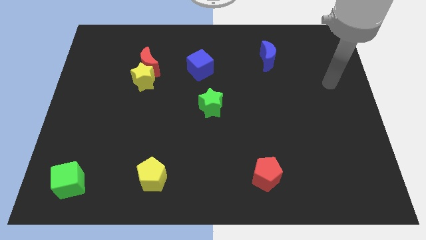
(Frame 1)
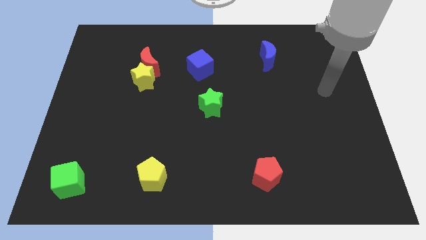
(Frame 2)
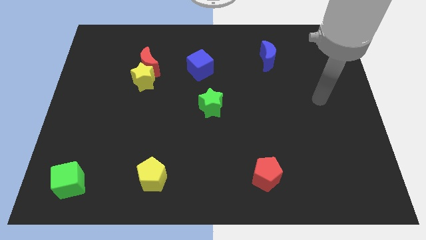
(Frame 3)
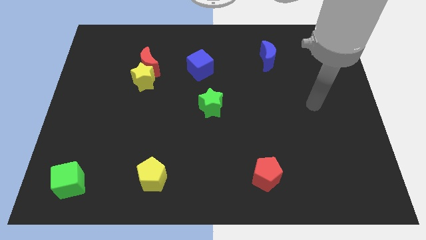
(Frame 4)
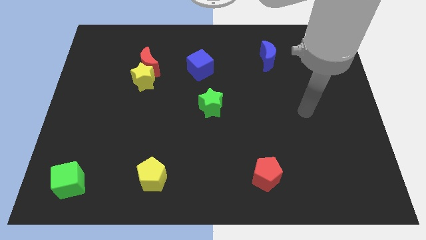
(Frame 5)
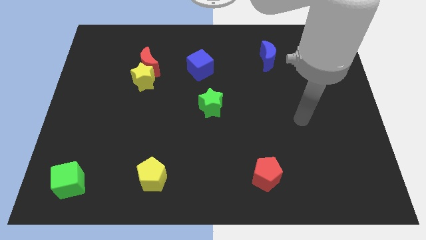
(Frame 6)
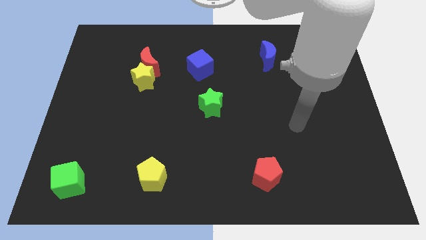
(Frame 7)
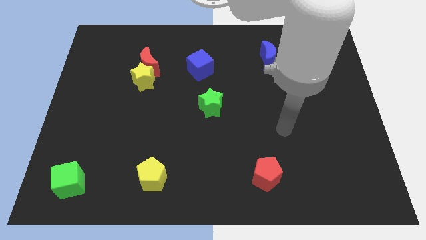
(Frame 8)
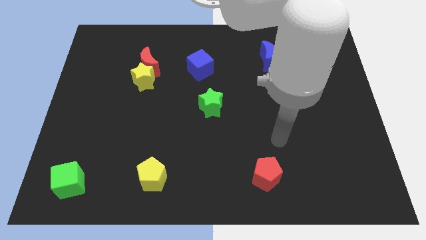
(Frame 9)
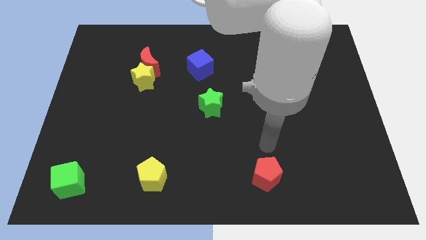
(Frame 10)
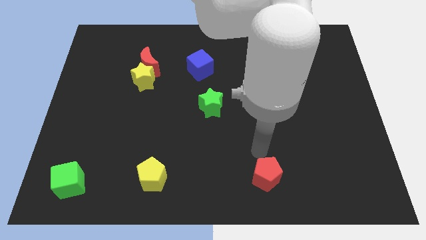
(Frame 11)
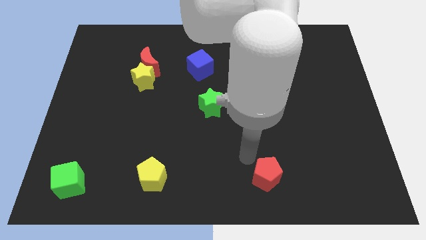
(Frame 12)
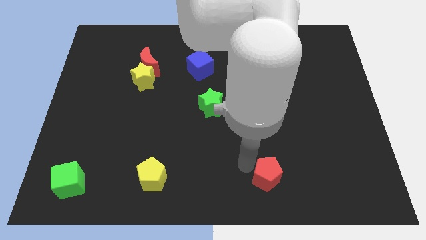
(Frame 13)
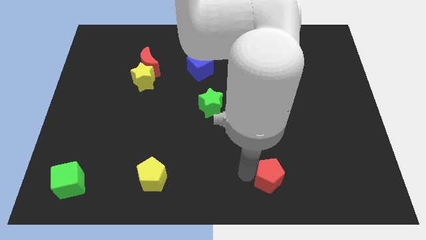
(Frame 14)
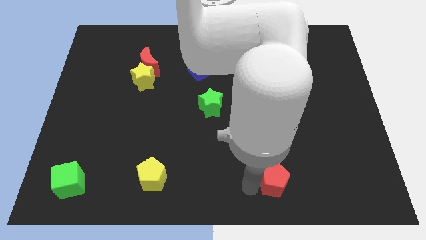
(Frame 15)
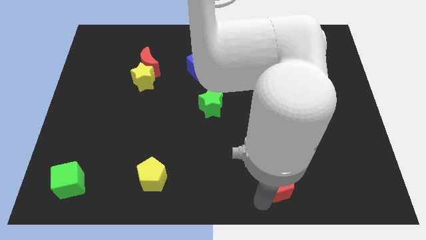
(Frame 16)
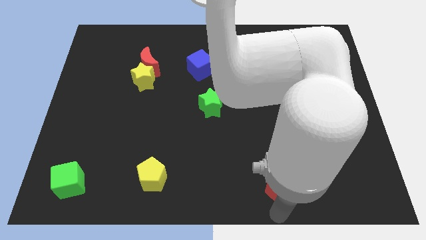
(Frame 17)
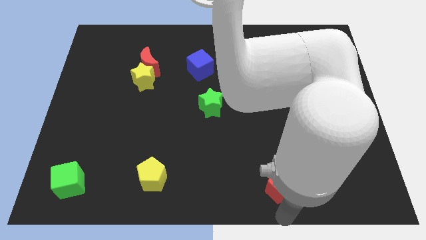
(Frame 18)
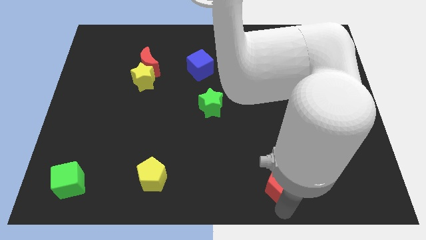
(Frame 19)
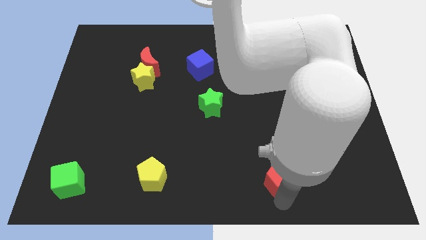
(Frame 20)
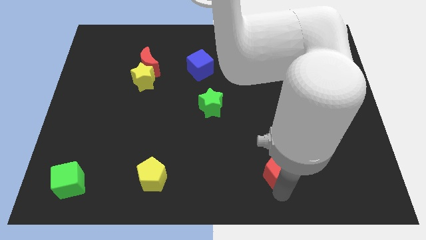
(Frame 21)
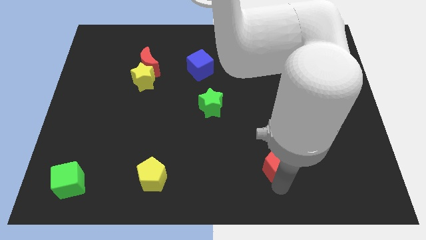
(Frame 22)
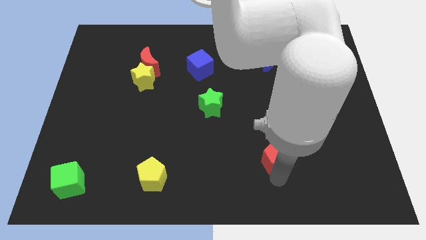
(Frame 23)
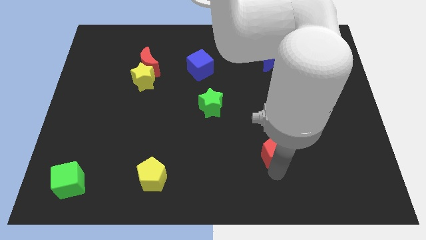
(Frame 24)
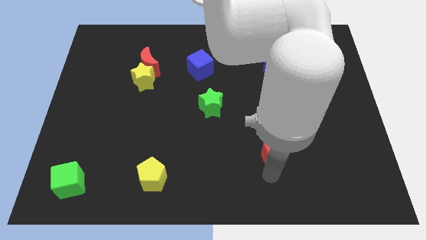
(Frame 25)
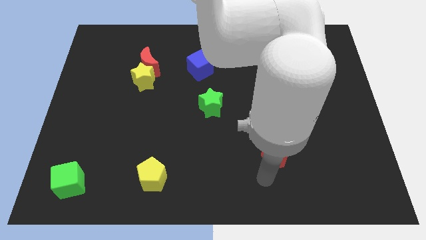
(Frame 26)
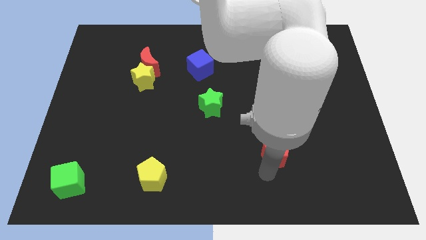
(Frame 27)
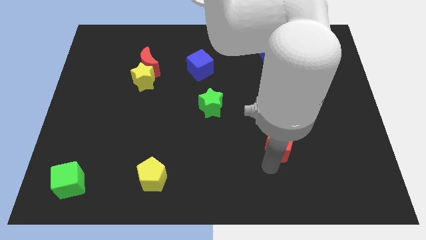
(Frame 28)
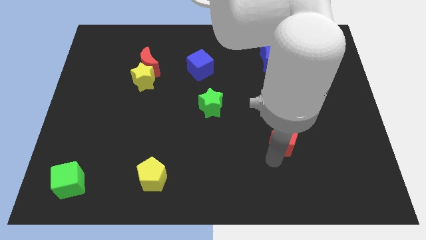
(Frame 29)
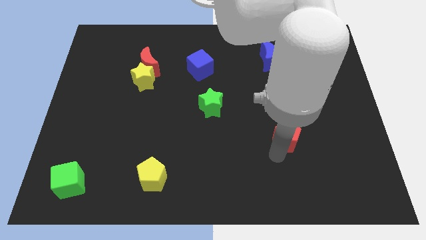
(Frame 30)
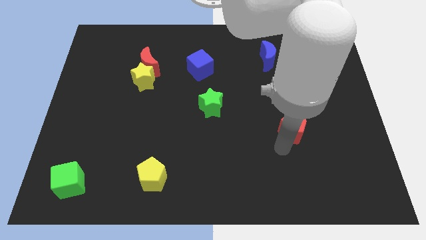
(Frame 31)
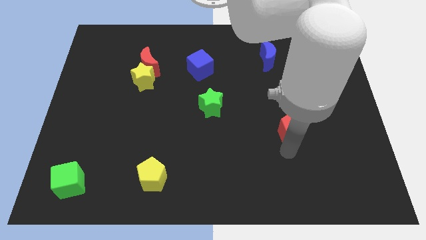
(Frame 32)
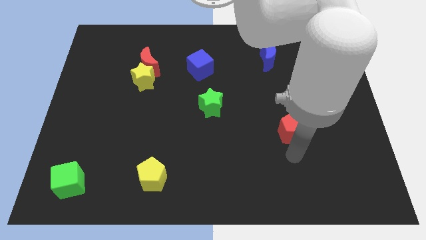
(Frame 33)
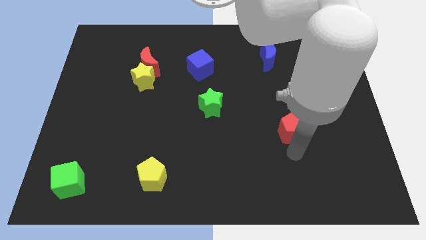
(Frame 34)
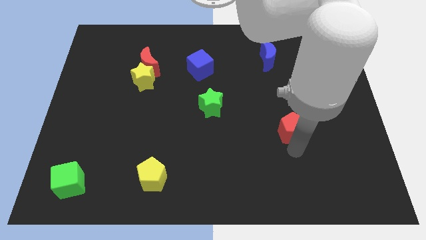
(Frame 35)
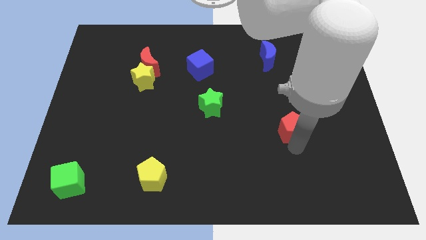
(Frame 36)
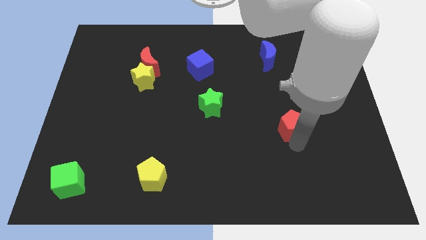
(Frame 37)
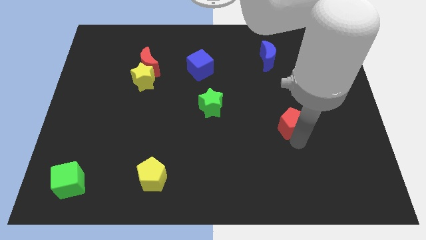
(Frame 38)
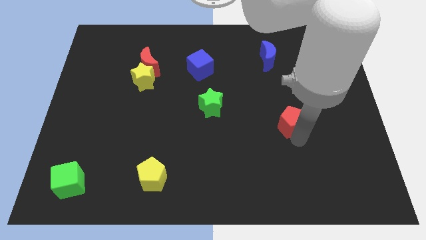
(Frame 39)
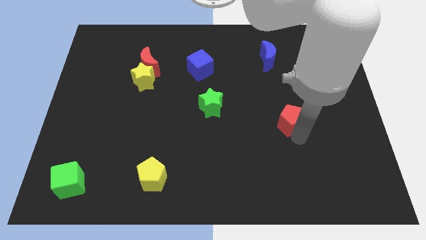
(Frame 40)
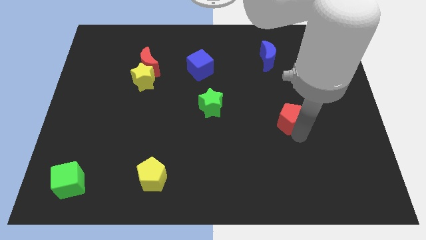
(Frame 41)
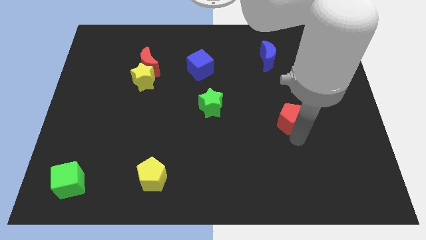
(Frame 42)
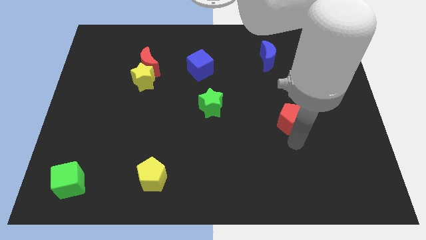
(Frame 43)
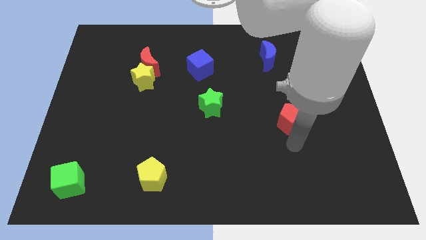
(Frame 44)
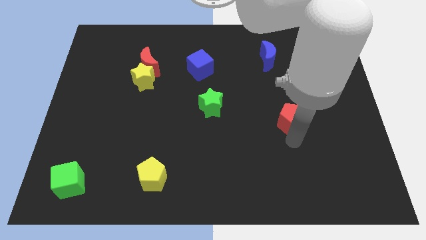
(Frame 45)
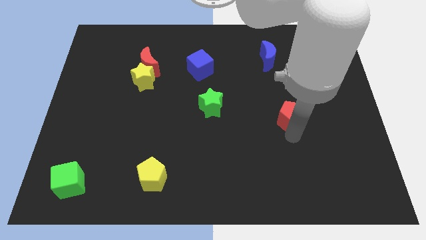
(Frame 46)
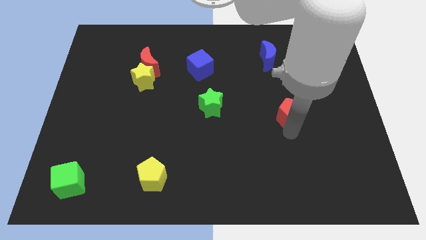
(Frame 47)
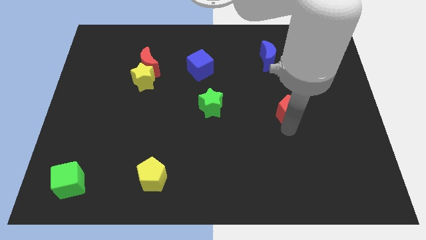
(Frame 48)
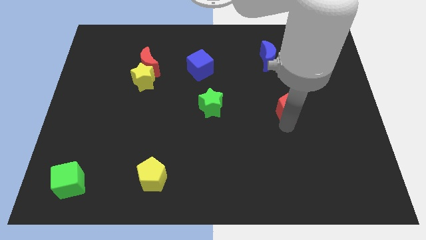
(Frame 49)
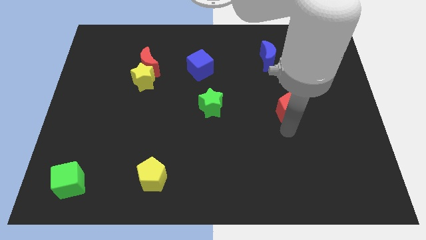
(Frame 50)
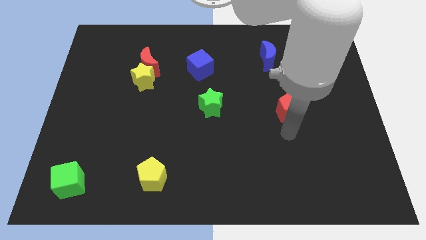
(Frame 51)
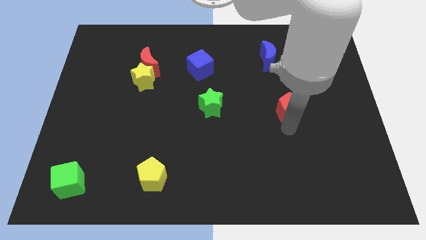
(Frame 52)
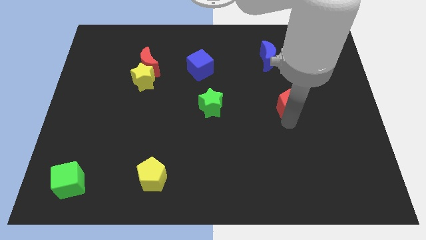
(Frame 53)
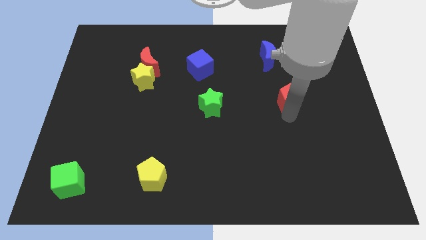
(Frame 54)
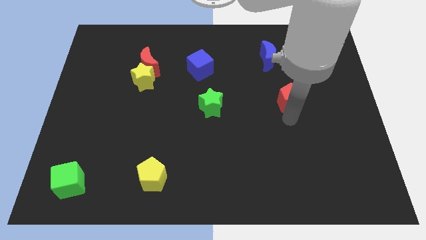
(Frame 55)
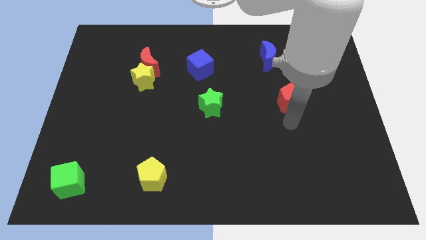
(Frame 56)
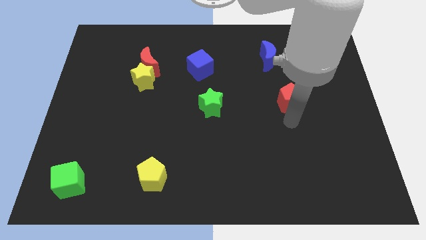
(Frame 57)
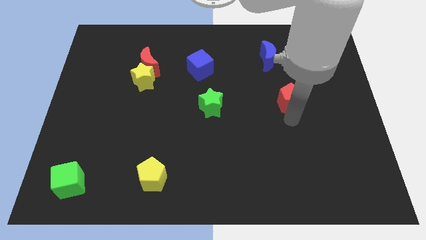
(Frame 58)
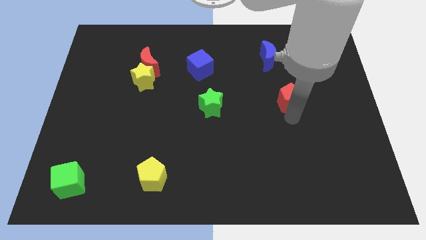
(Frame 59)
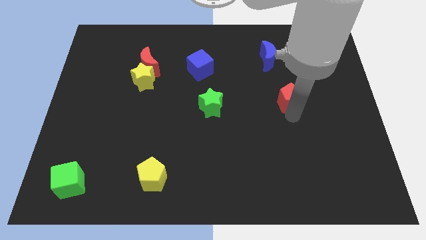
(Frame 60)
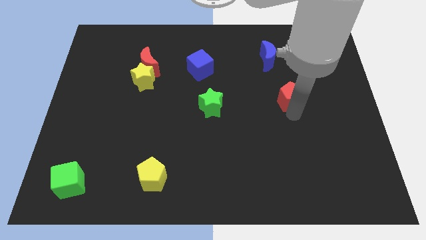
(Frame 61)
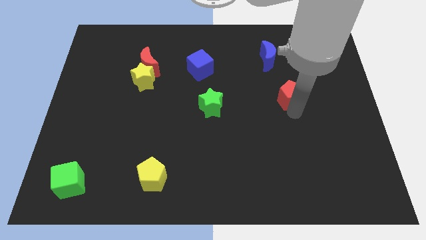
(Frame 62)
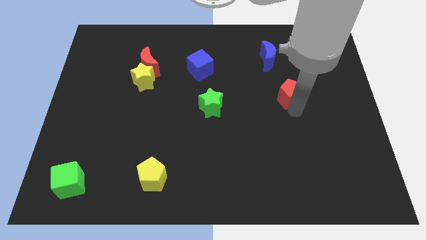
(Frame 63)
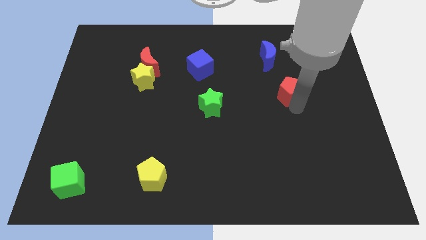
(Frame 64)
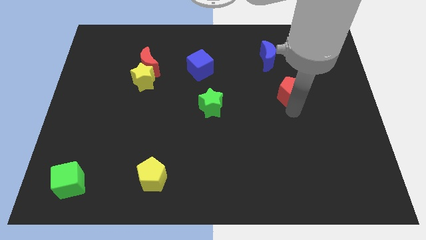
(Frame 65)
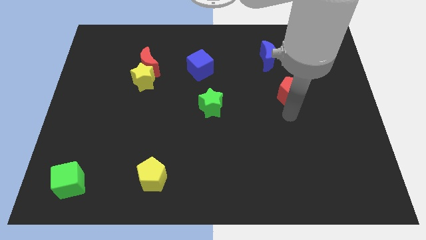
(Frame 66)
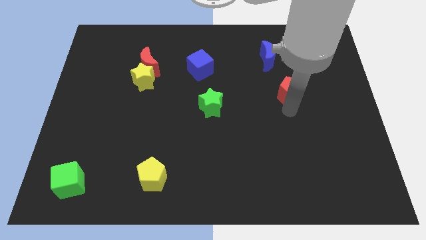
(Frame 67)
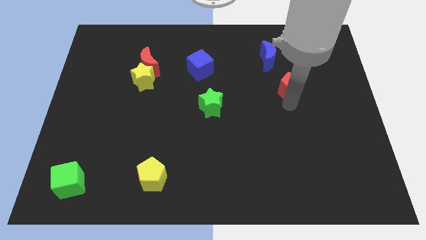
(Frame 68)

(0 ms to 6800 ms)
put the red pentagon to the bottom right side of the blue moon
